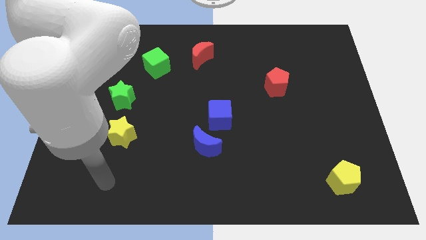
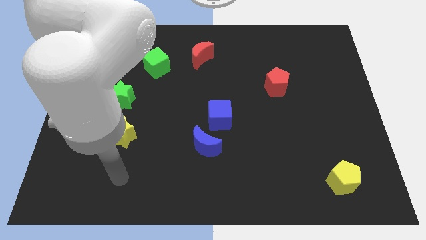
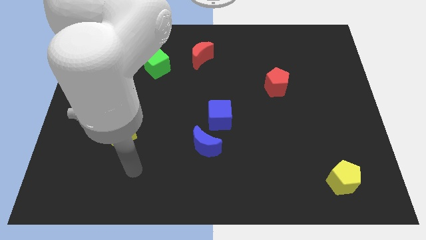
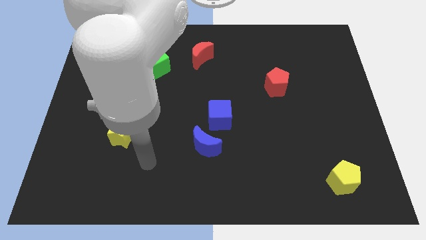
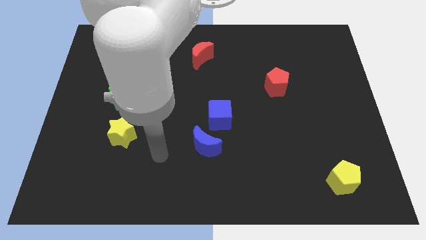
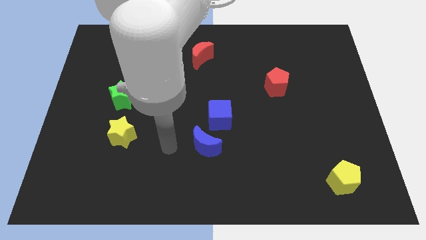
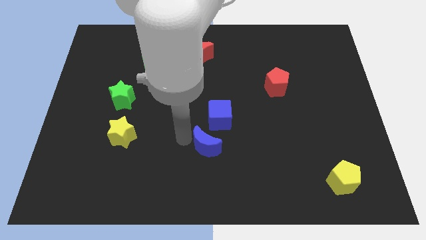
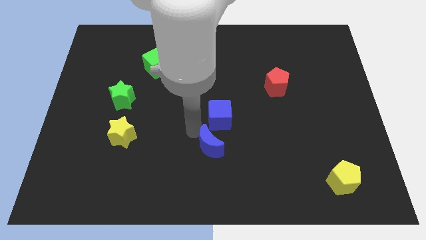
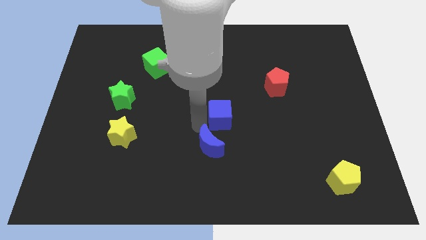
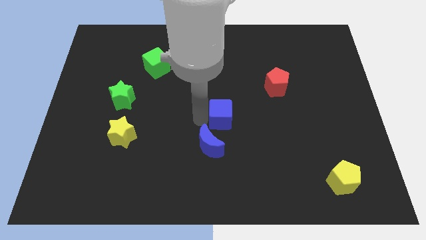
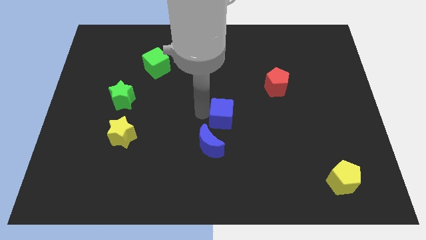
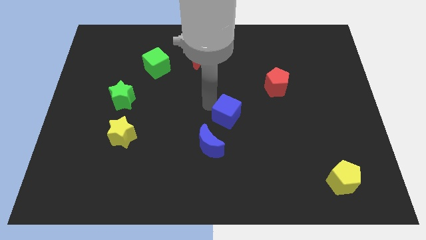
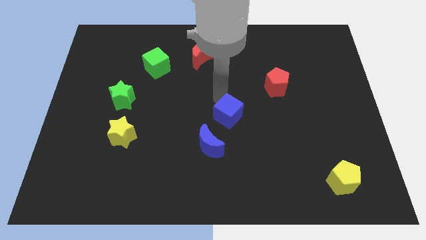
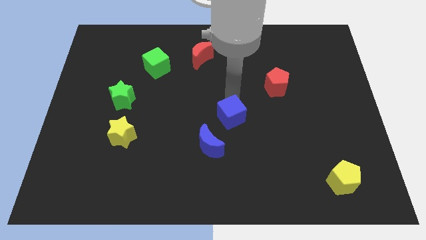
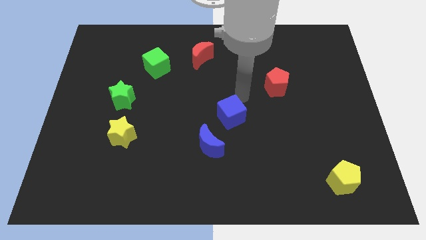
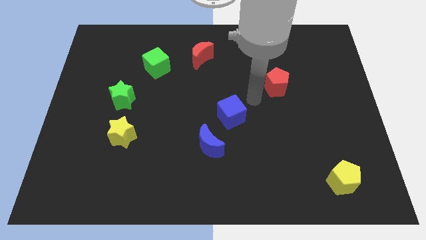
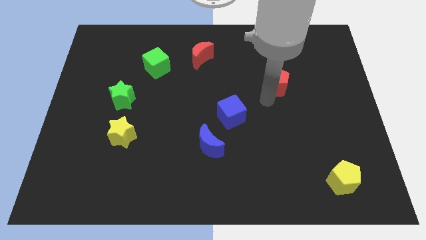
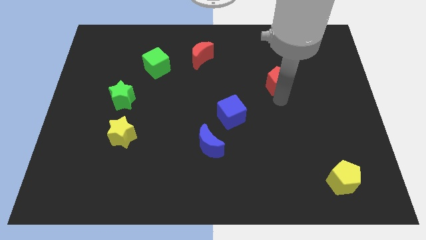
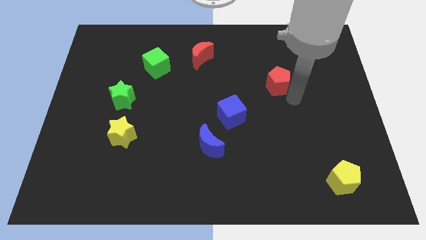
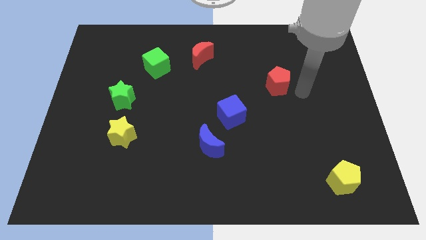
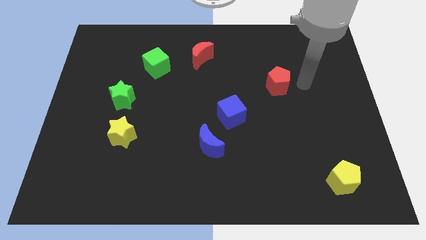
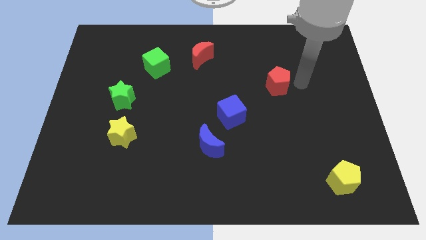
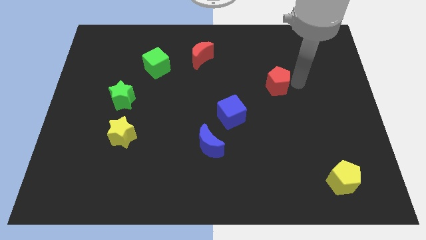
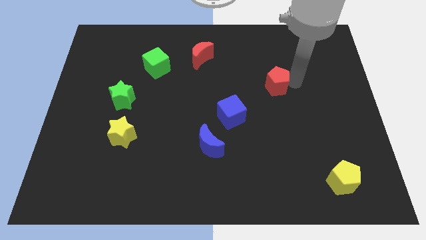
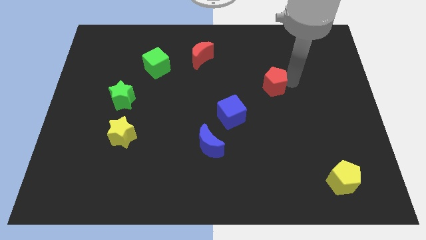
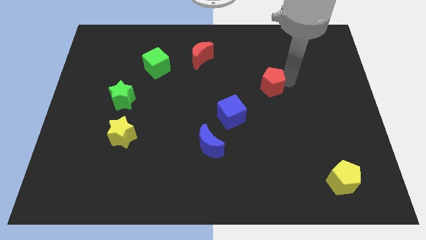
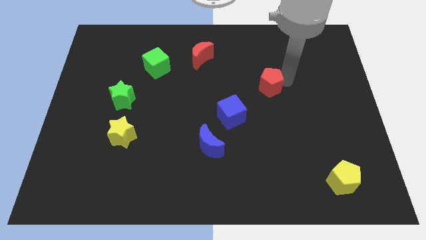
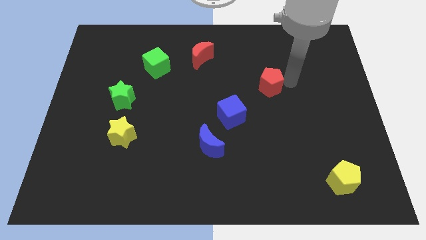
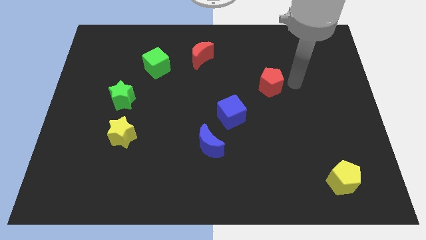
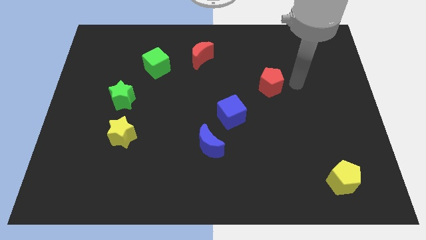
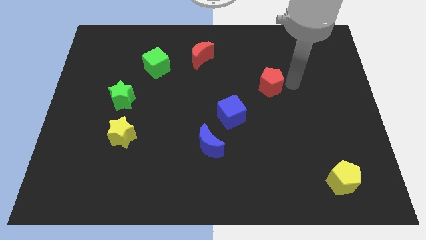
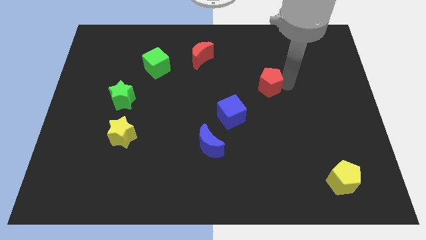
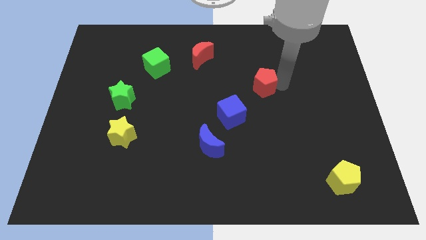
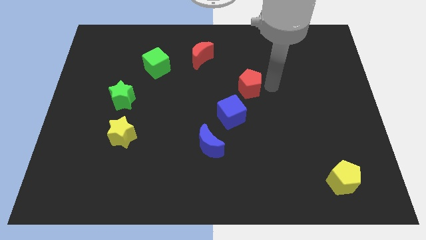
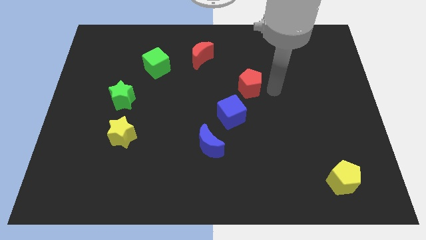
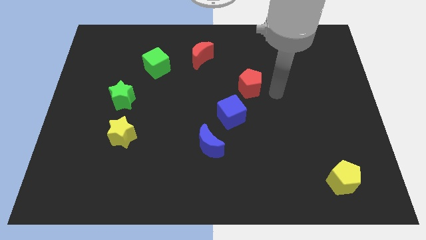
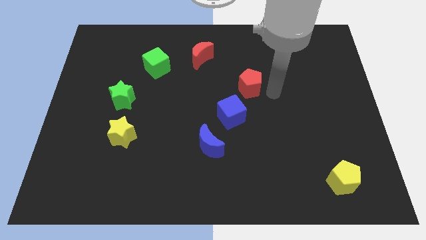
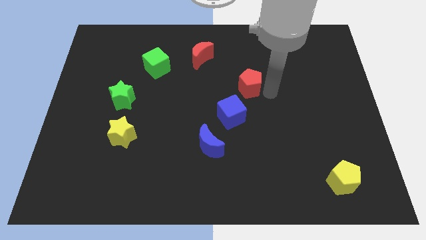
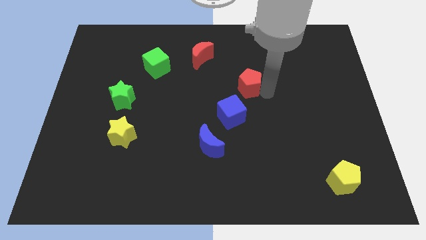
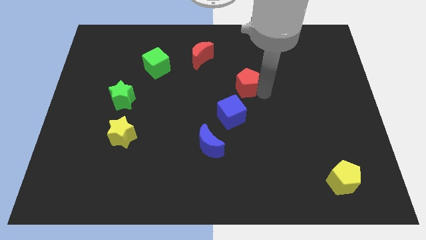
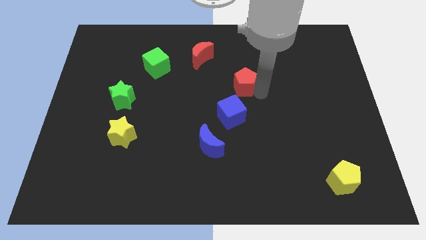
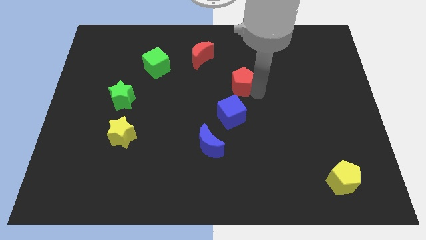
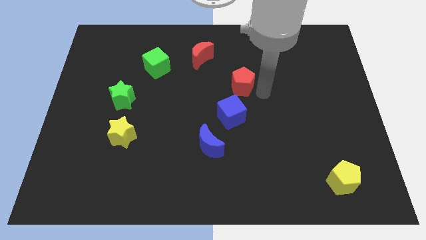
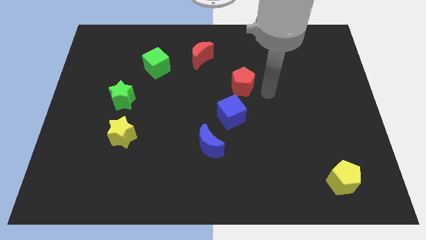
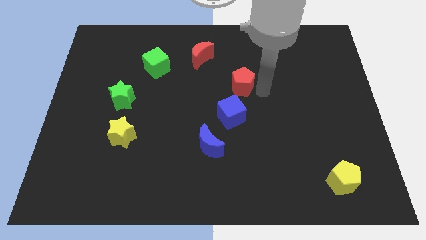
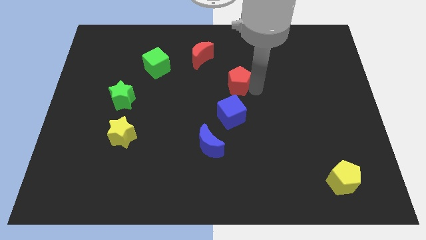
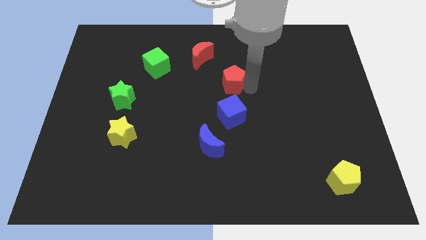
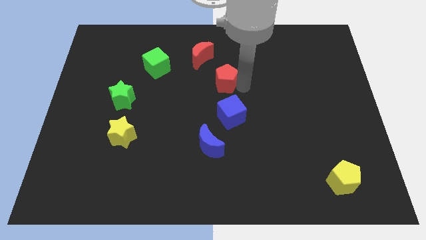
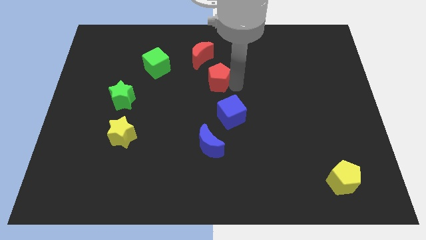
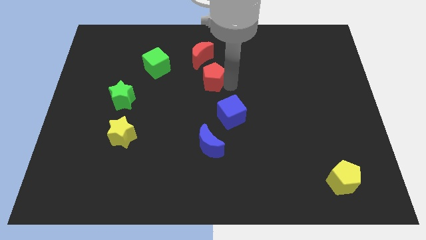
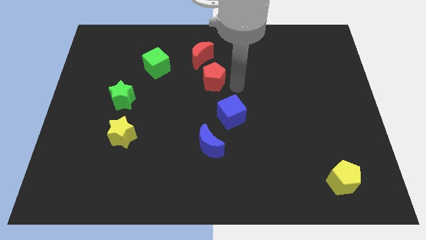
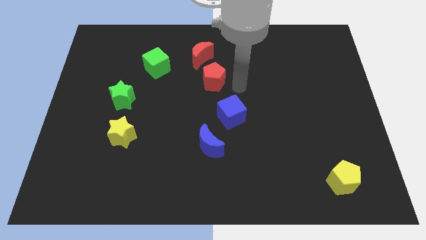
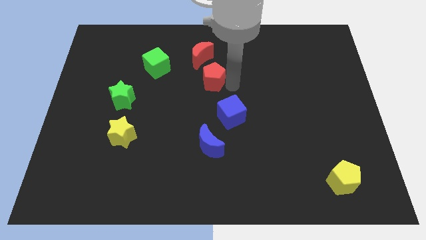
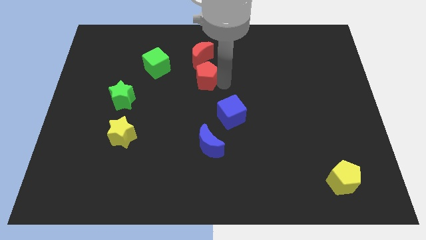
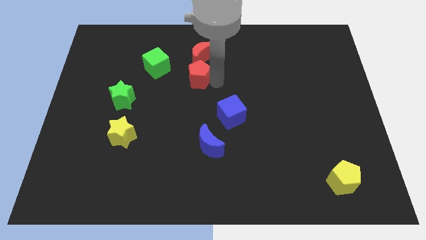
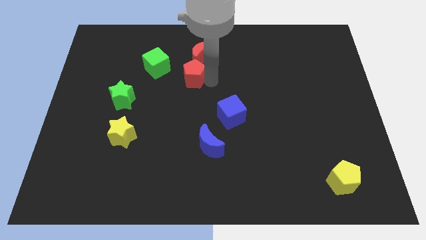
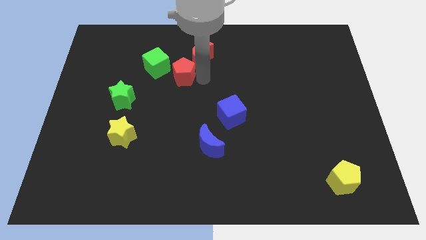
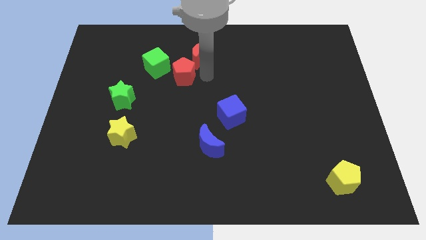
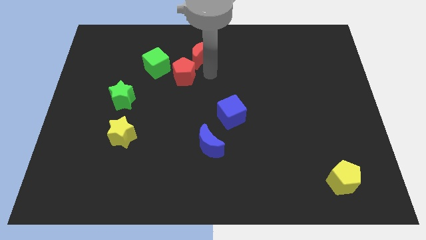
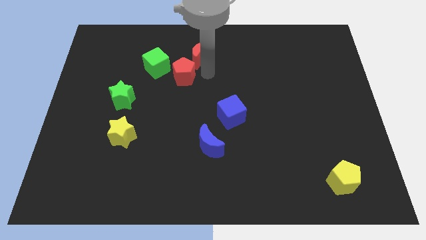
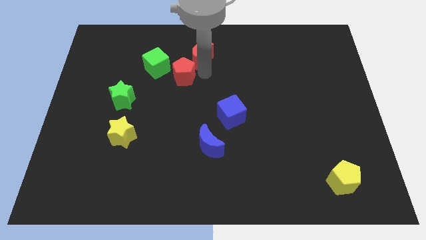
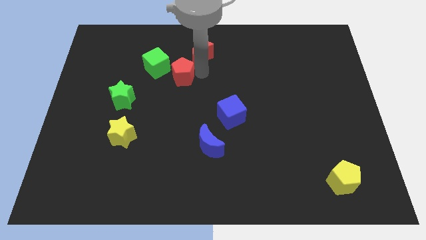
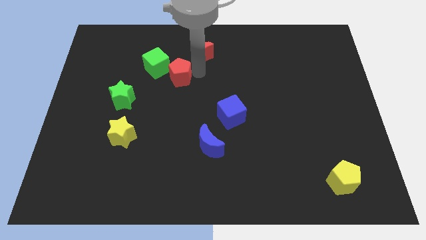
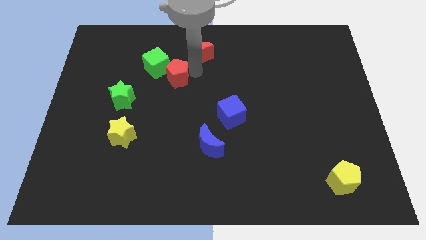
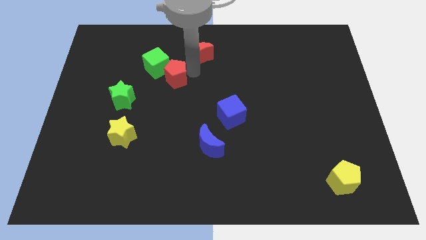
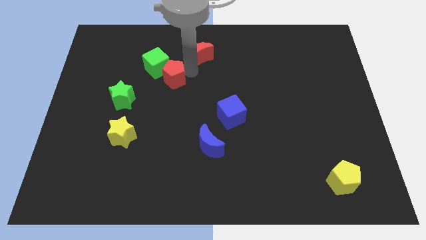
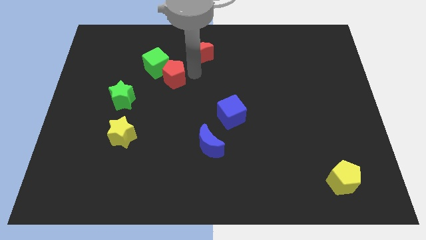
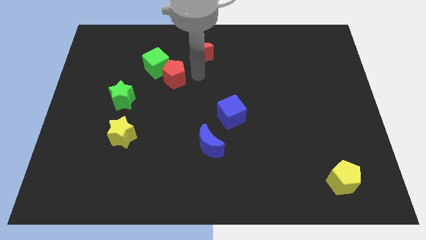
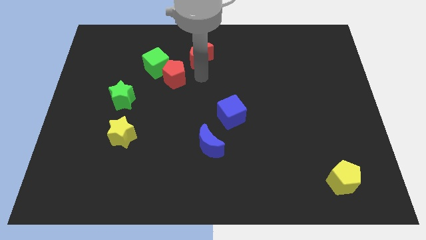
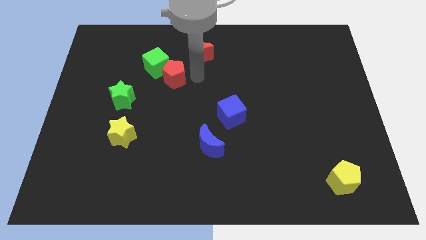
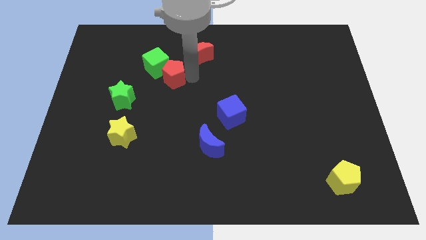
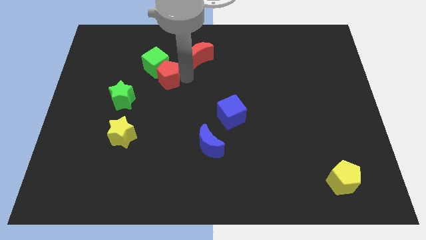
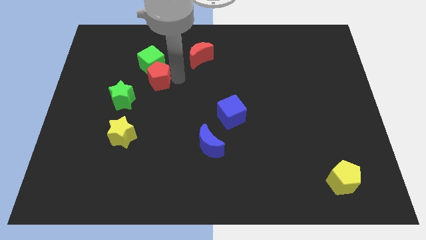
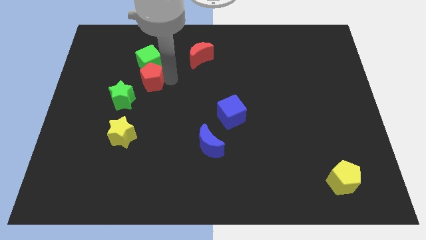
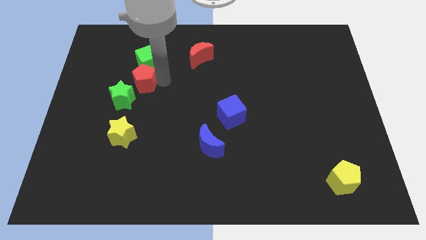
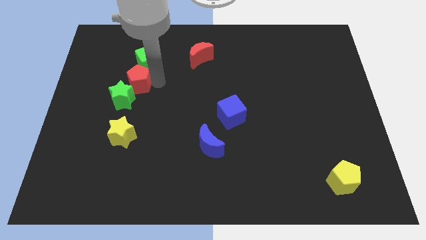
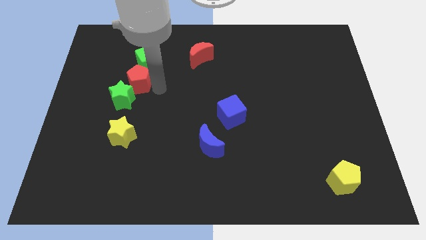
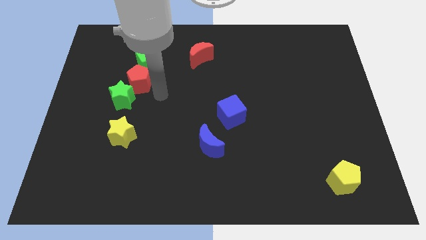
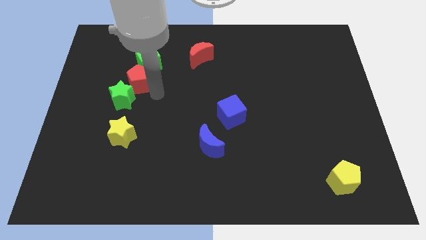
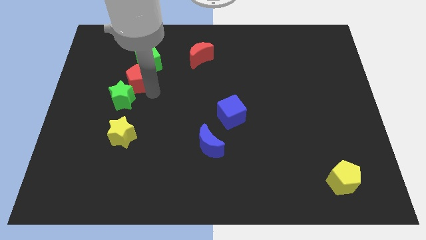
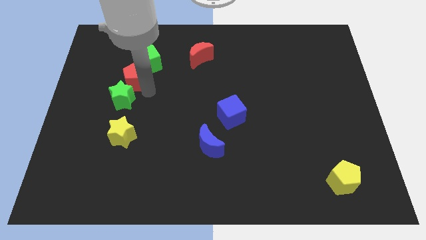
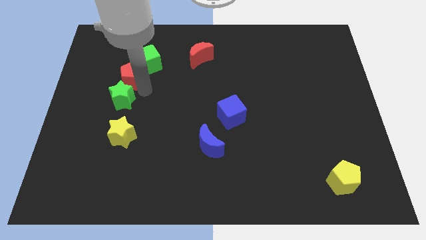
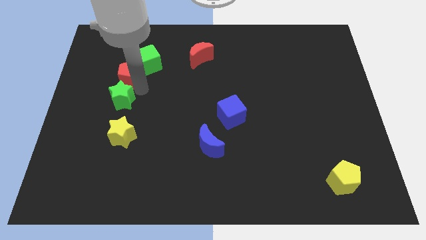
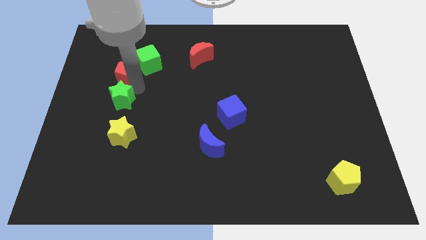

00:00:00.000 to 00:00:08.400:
push the red pentagon left of the green cube
